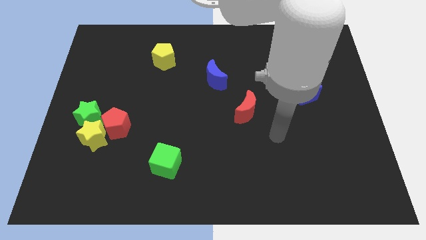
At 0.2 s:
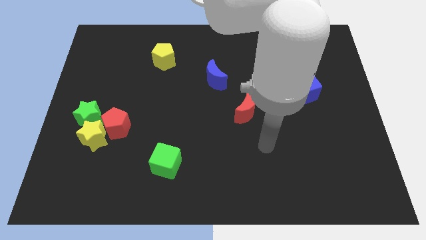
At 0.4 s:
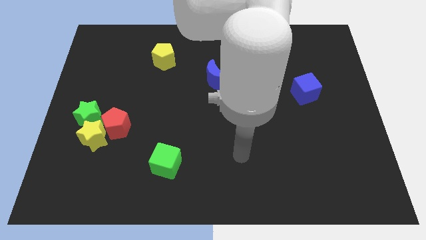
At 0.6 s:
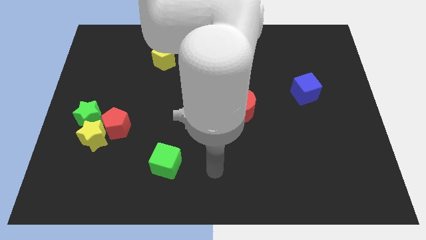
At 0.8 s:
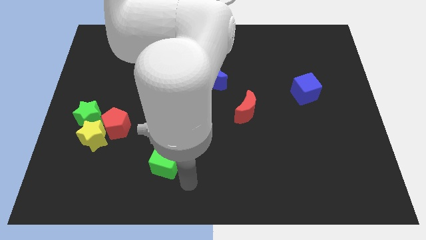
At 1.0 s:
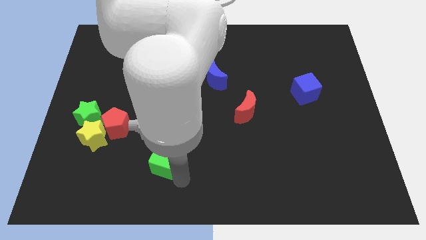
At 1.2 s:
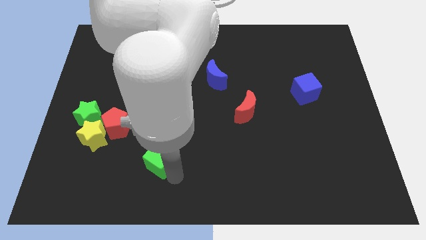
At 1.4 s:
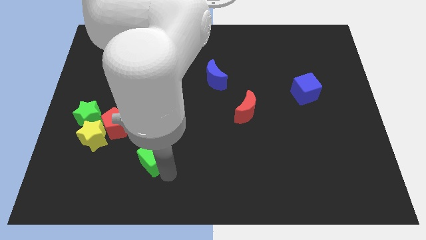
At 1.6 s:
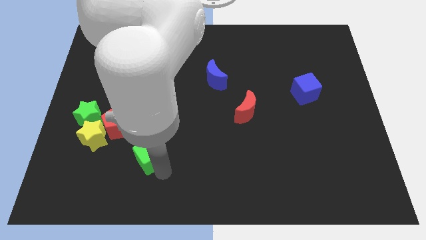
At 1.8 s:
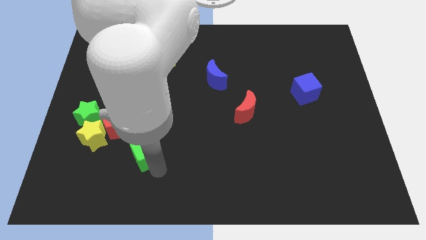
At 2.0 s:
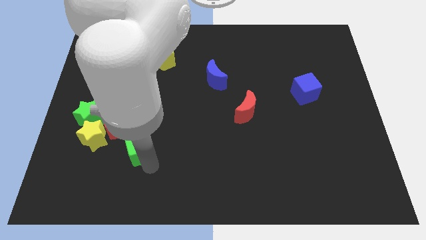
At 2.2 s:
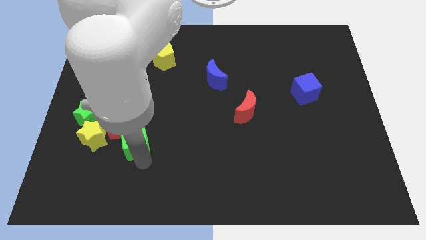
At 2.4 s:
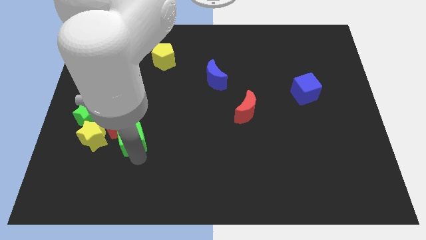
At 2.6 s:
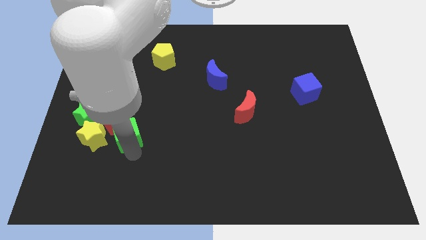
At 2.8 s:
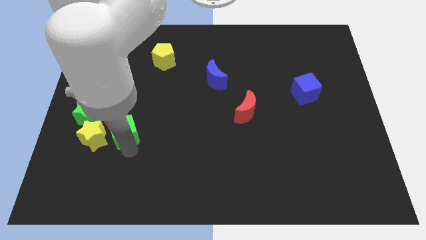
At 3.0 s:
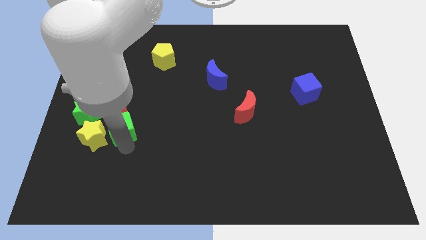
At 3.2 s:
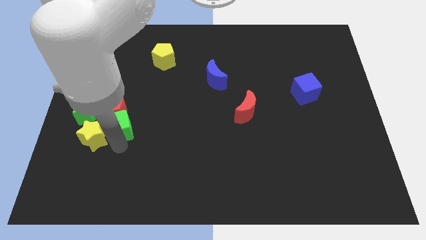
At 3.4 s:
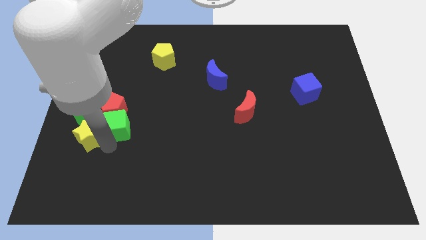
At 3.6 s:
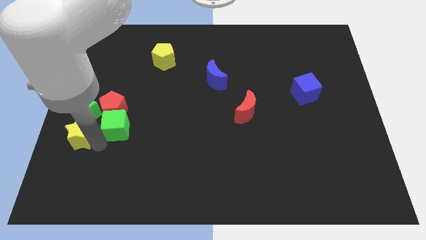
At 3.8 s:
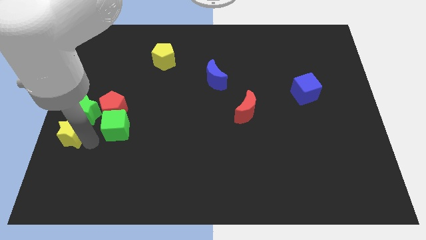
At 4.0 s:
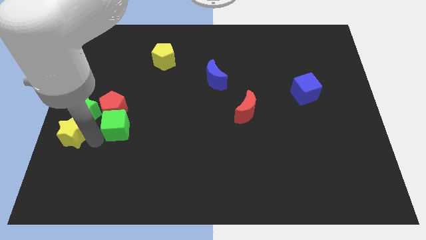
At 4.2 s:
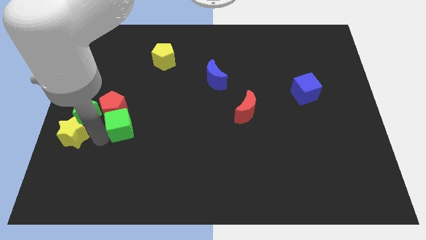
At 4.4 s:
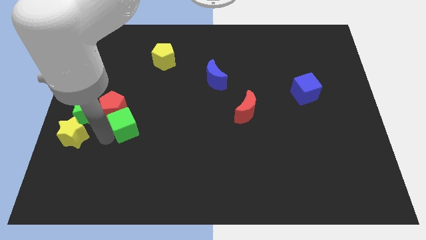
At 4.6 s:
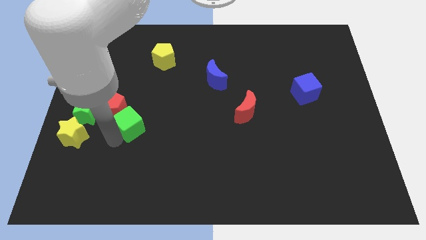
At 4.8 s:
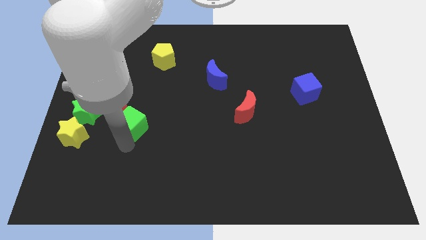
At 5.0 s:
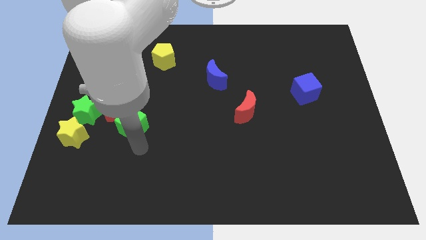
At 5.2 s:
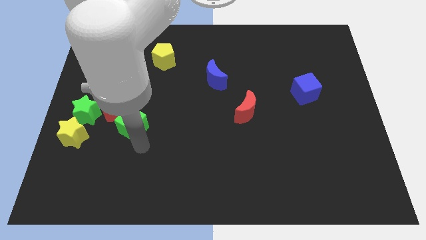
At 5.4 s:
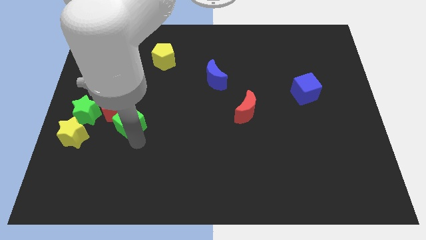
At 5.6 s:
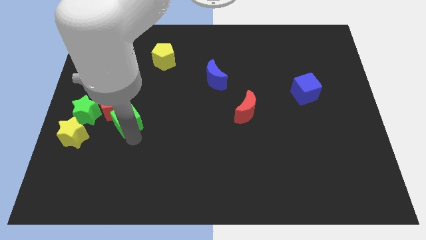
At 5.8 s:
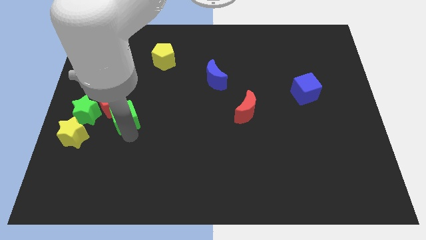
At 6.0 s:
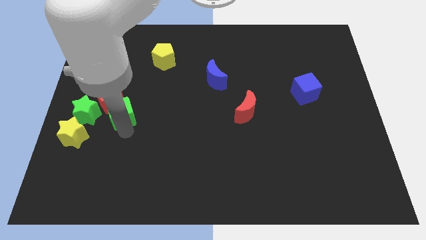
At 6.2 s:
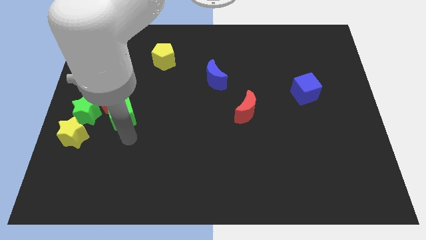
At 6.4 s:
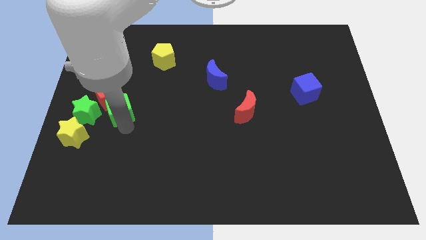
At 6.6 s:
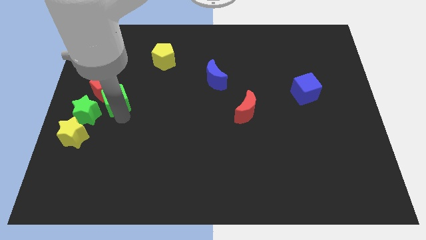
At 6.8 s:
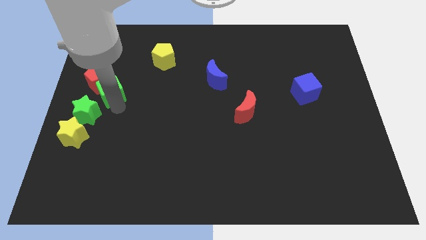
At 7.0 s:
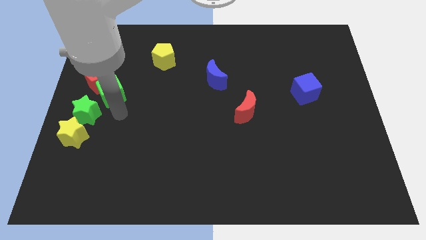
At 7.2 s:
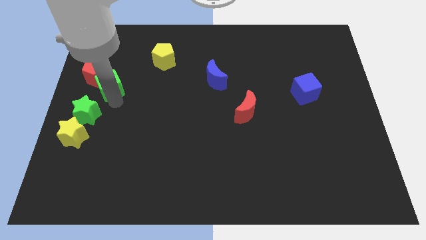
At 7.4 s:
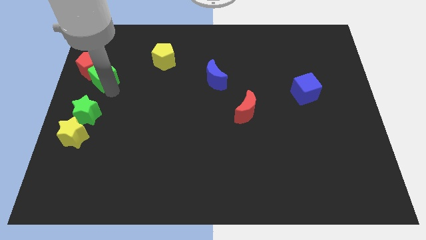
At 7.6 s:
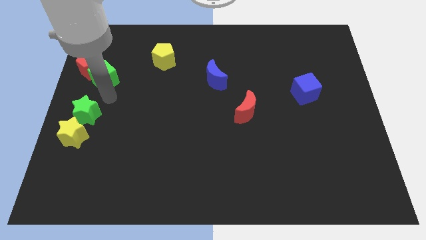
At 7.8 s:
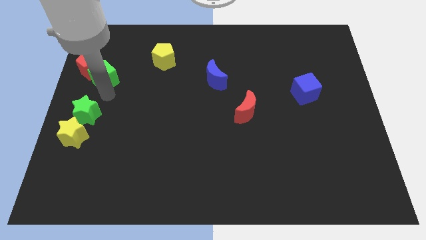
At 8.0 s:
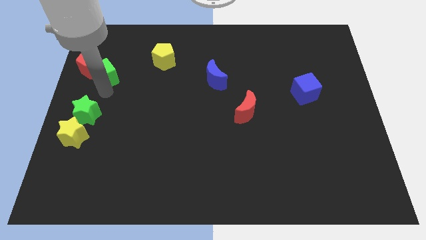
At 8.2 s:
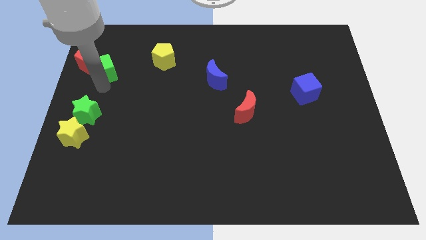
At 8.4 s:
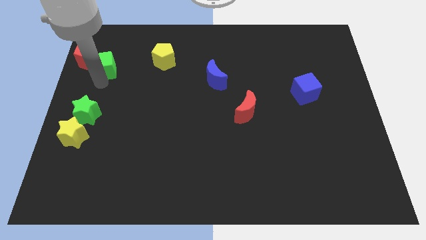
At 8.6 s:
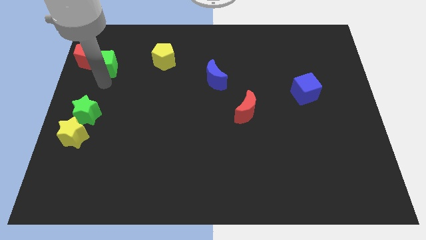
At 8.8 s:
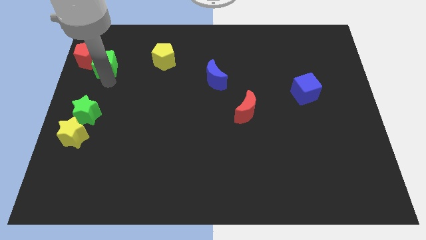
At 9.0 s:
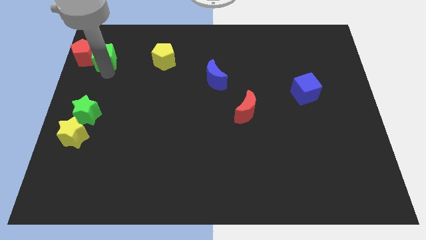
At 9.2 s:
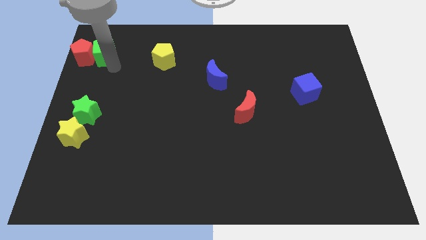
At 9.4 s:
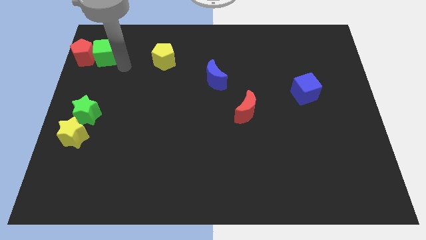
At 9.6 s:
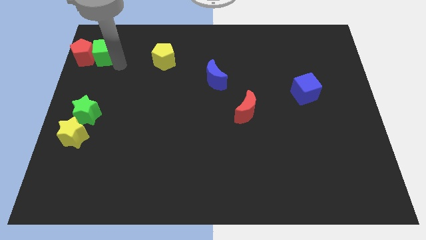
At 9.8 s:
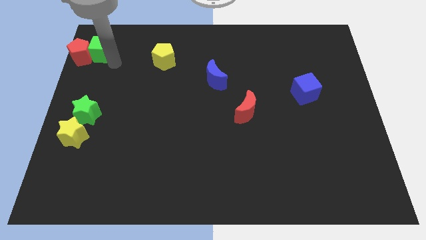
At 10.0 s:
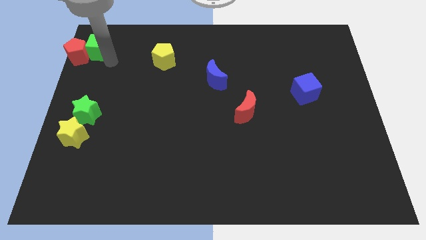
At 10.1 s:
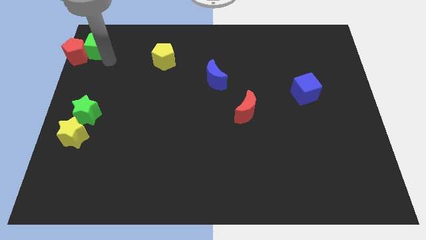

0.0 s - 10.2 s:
push the green cube to the top left of the board

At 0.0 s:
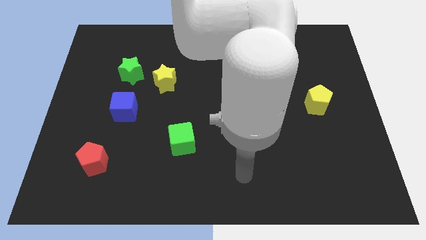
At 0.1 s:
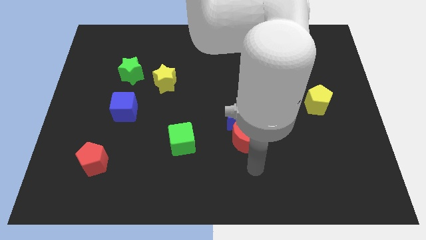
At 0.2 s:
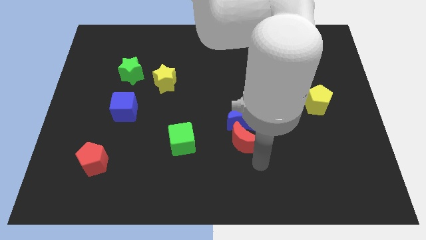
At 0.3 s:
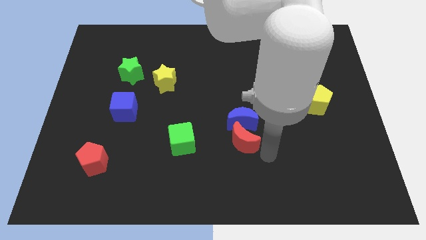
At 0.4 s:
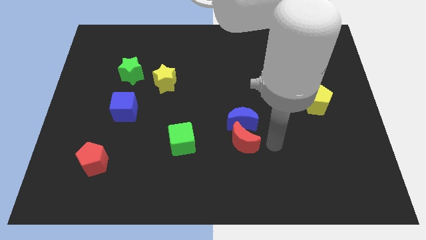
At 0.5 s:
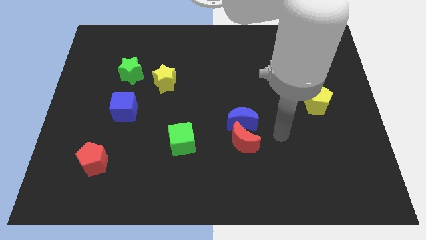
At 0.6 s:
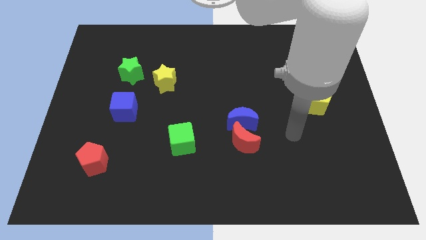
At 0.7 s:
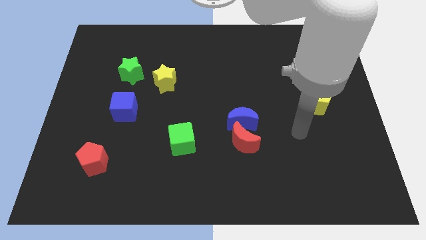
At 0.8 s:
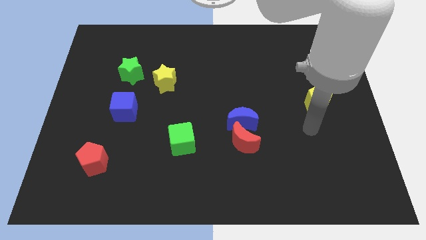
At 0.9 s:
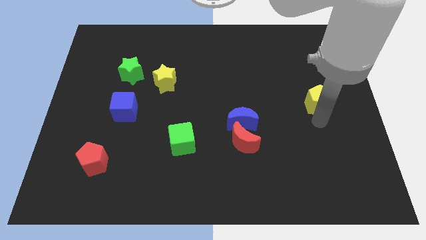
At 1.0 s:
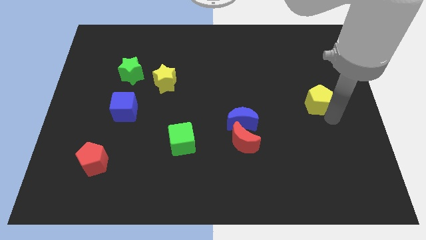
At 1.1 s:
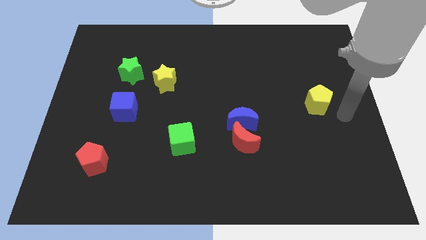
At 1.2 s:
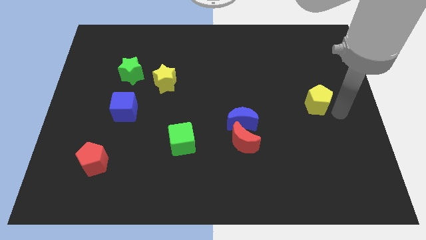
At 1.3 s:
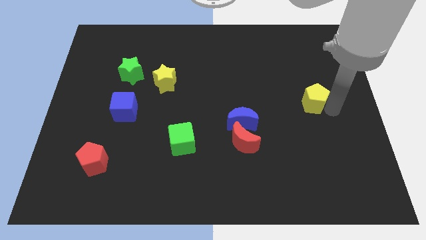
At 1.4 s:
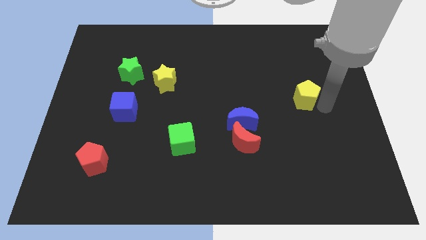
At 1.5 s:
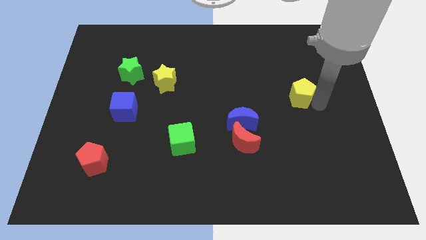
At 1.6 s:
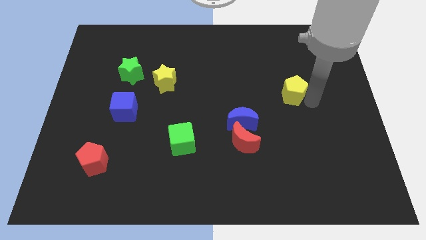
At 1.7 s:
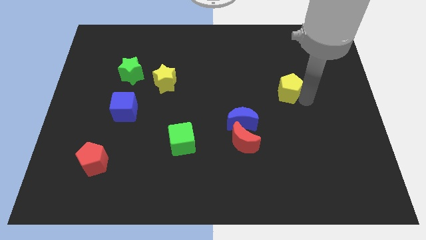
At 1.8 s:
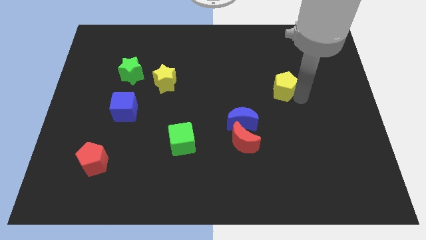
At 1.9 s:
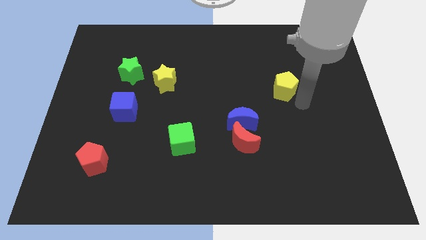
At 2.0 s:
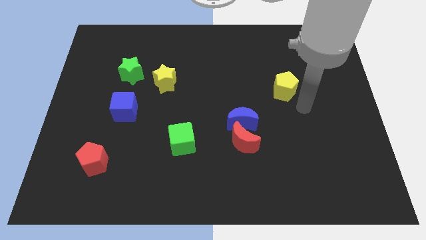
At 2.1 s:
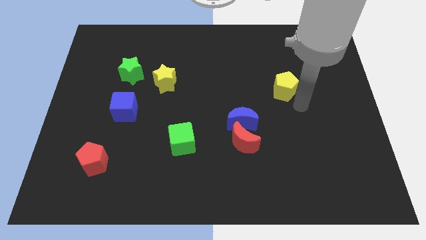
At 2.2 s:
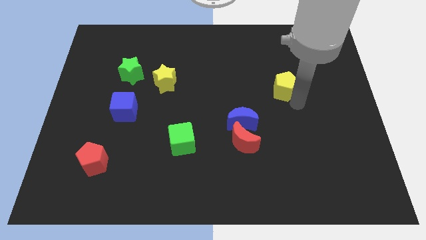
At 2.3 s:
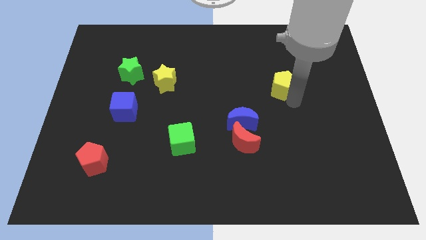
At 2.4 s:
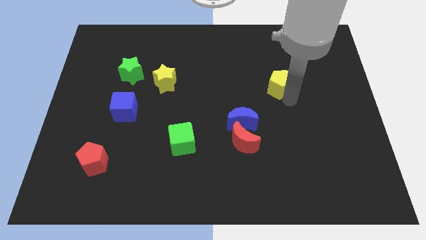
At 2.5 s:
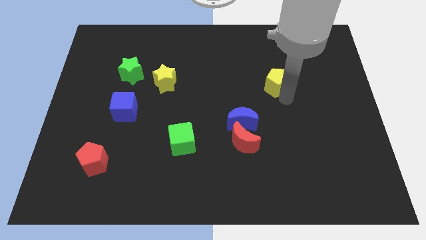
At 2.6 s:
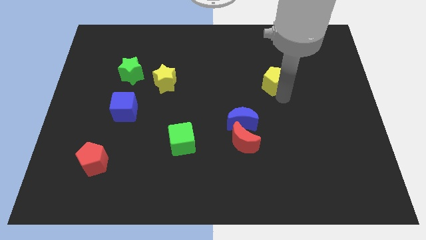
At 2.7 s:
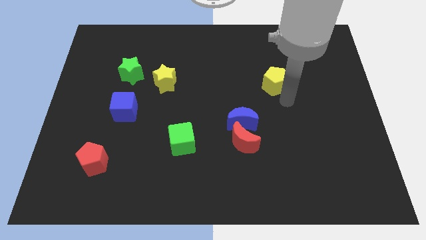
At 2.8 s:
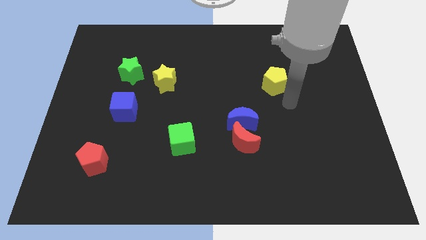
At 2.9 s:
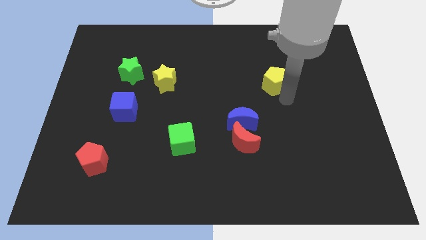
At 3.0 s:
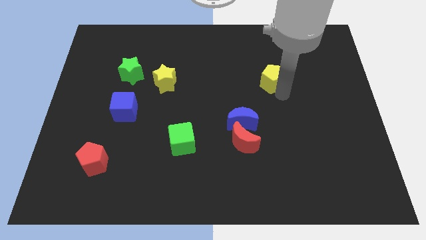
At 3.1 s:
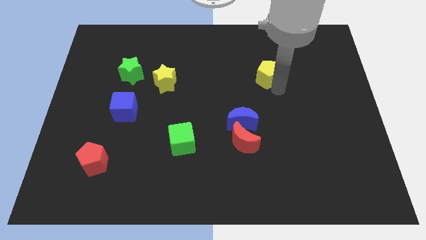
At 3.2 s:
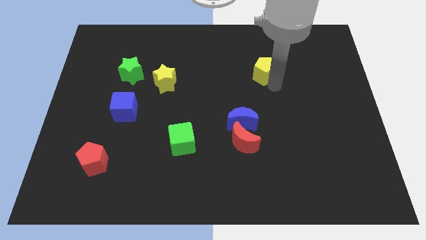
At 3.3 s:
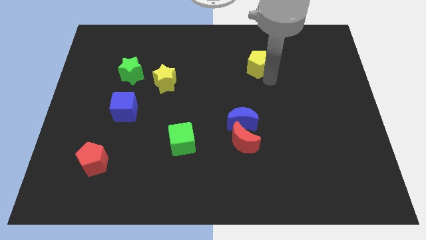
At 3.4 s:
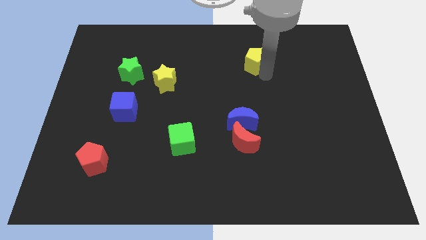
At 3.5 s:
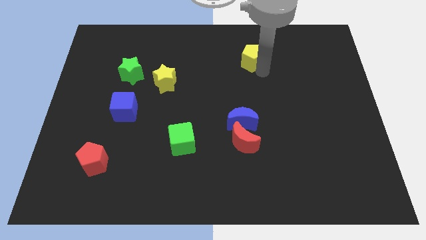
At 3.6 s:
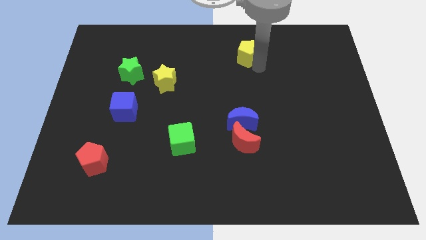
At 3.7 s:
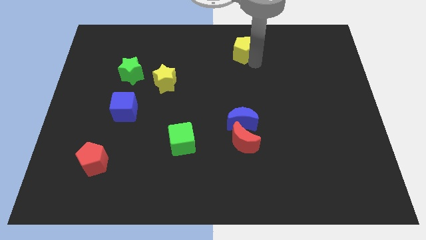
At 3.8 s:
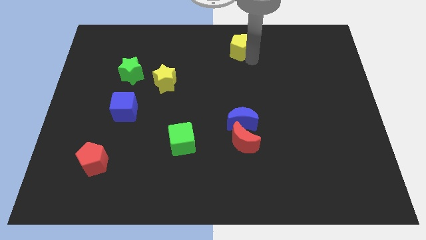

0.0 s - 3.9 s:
push the yellow pentagon to the top side
